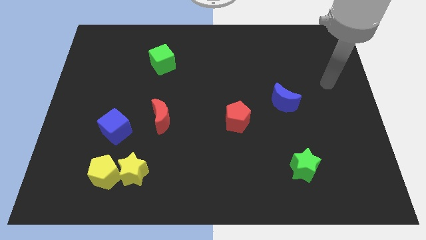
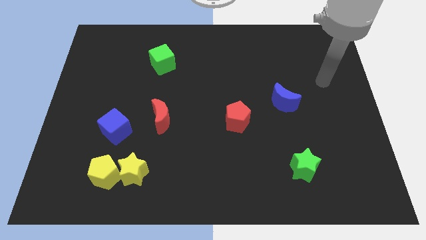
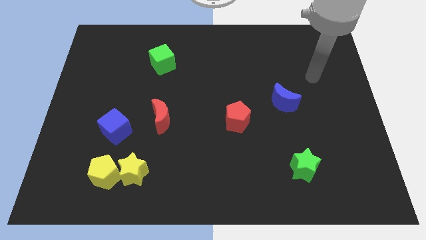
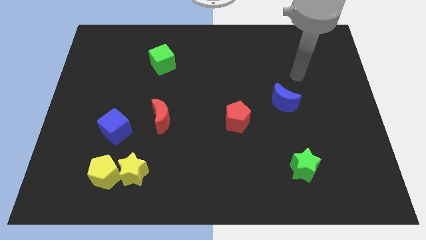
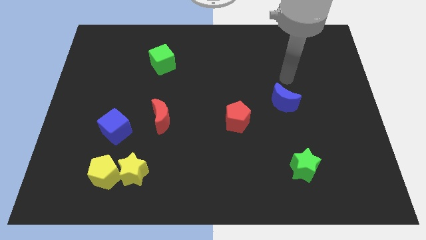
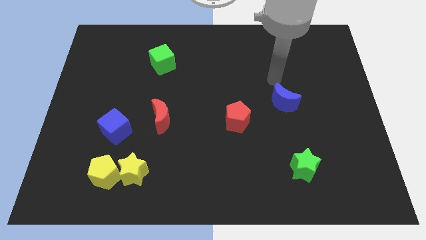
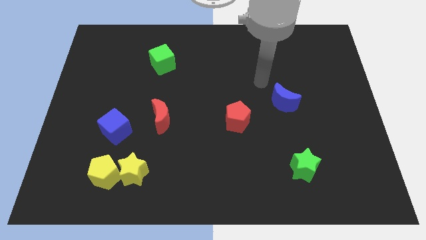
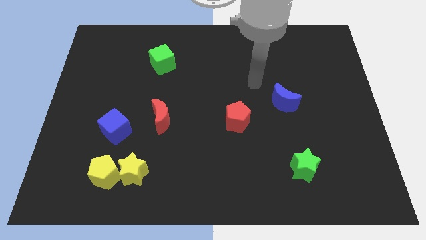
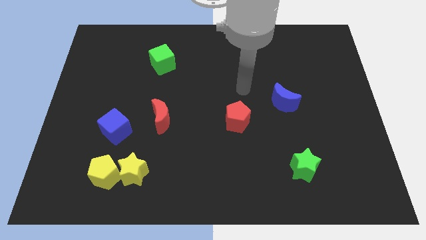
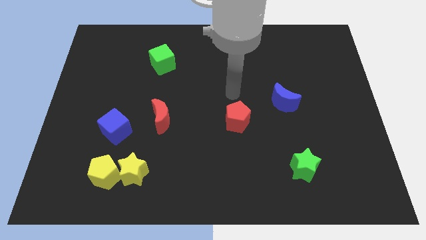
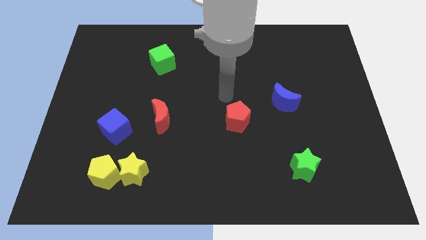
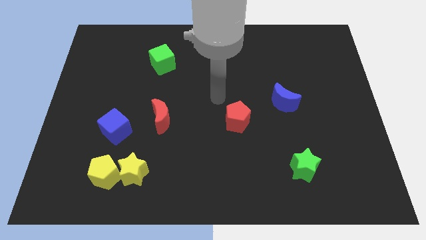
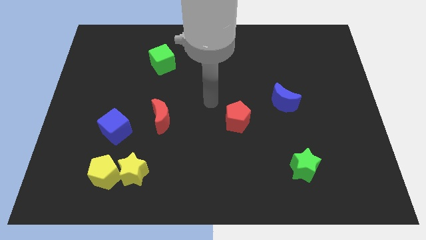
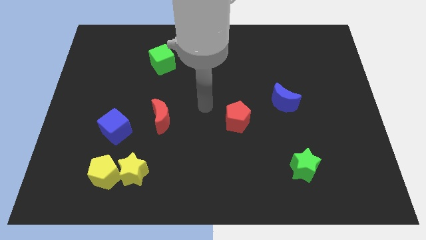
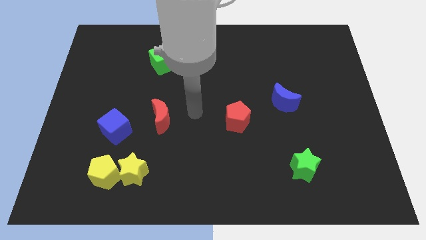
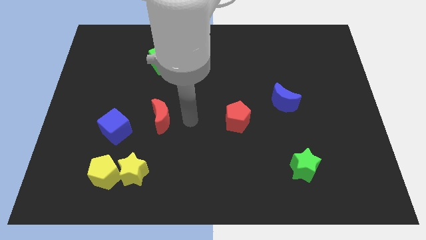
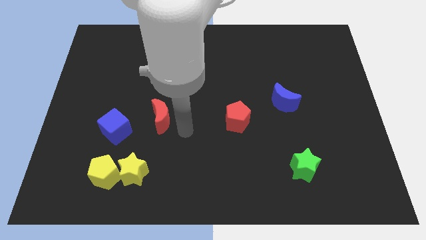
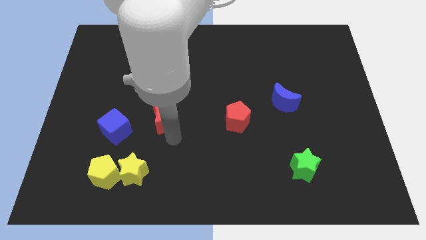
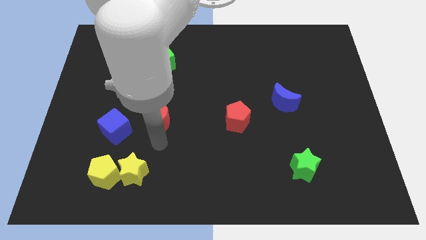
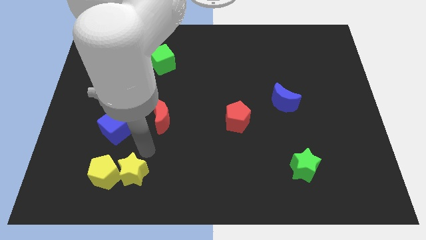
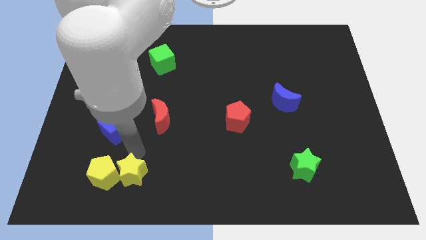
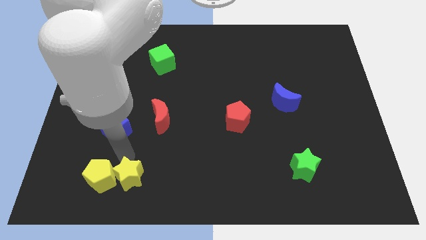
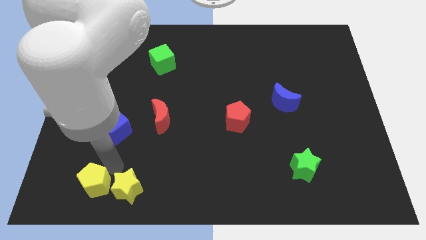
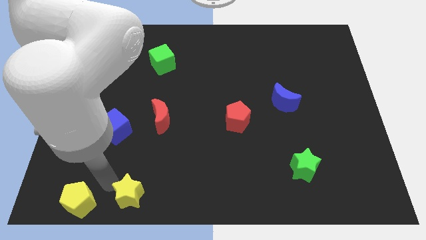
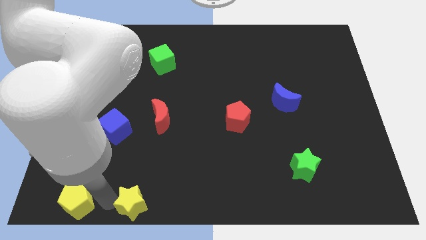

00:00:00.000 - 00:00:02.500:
separate the yellow star from the yellow pentagon

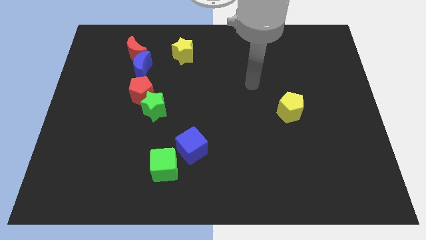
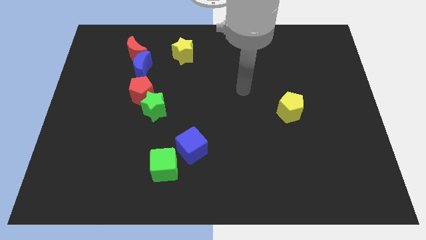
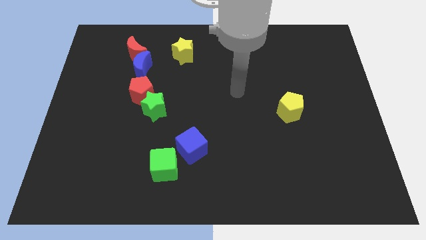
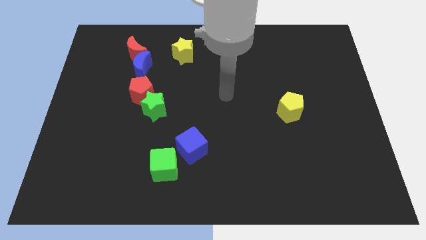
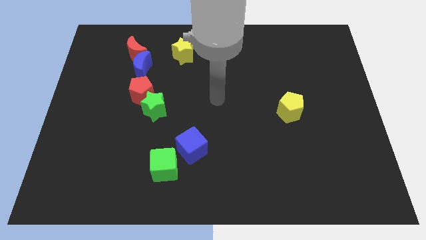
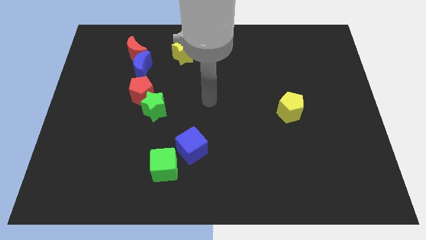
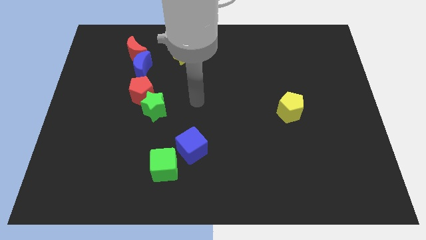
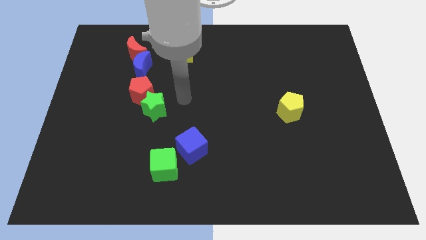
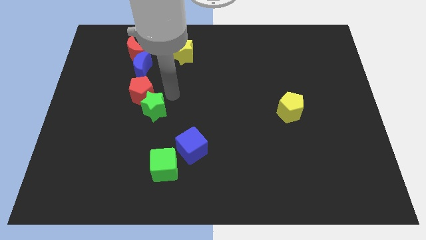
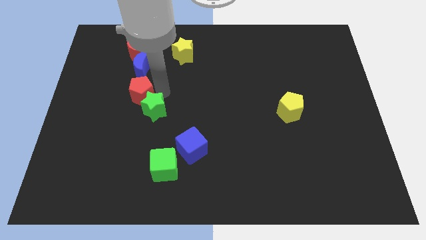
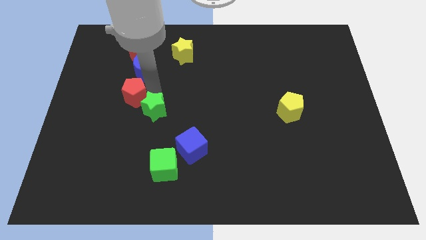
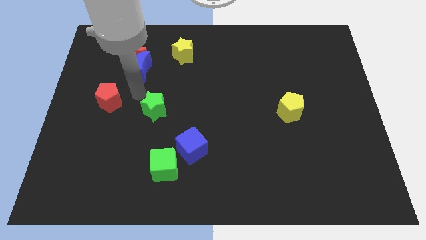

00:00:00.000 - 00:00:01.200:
separate the green star from the red pentagon

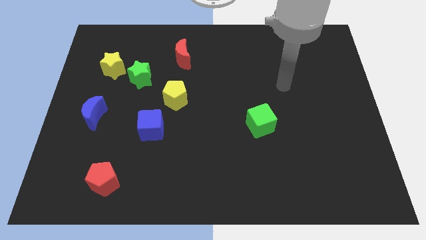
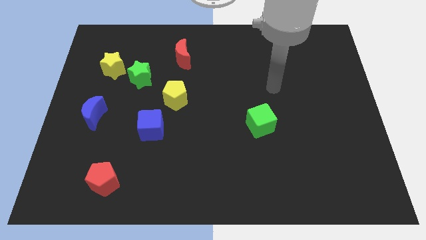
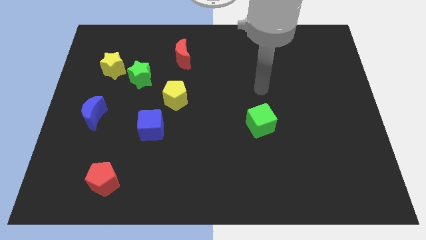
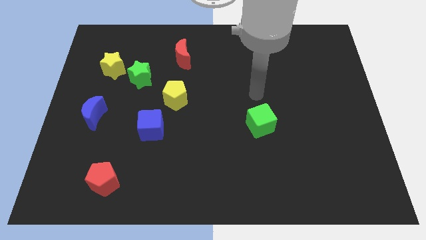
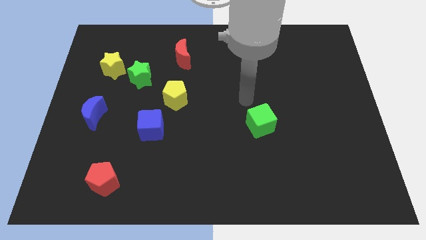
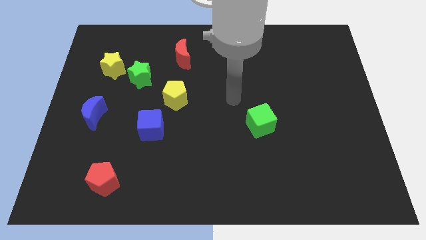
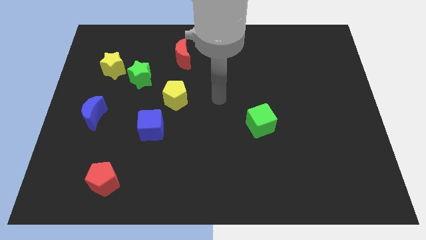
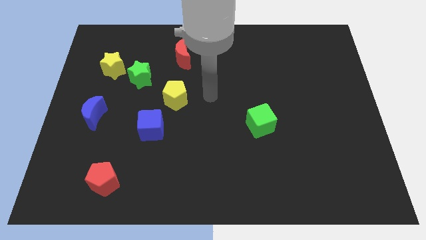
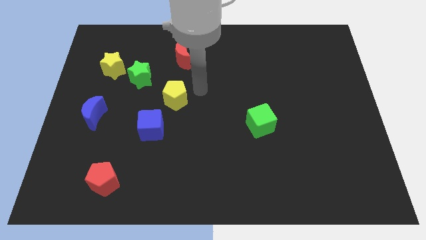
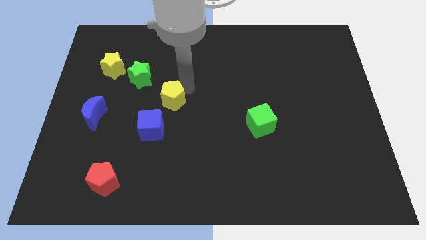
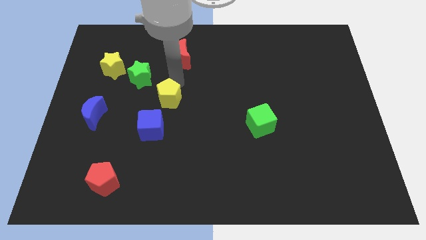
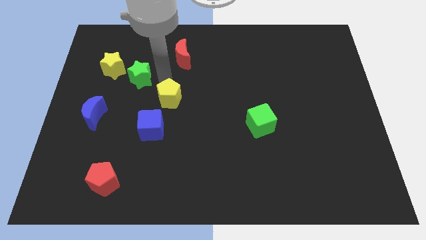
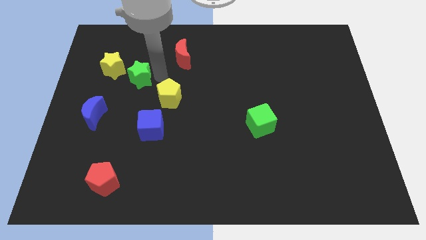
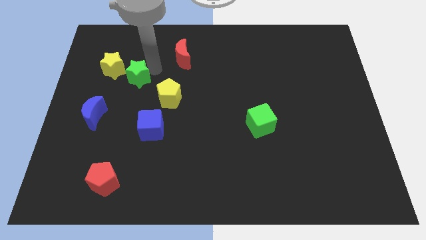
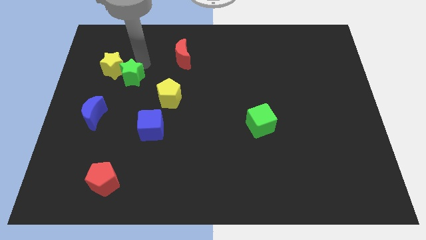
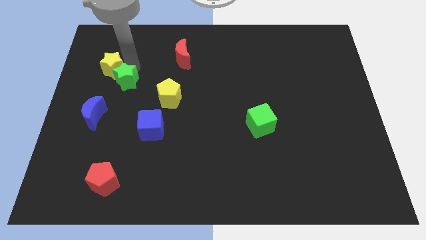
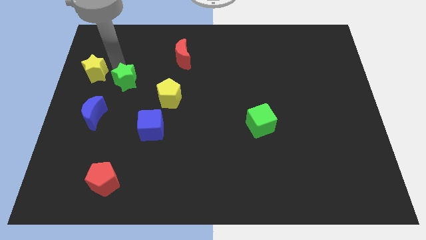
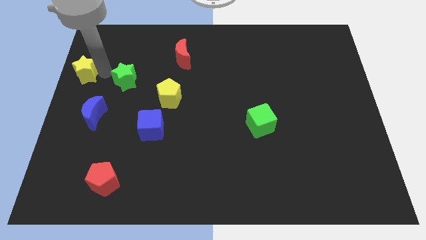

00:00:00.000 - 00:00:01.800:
move the green star away from the yellow star

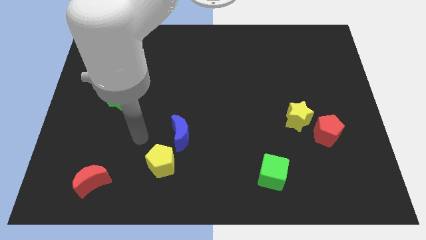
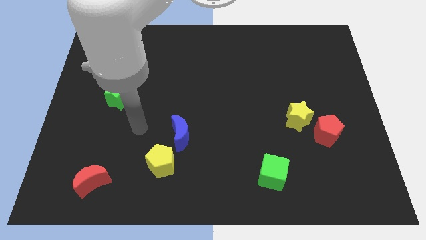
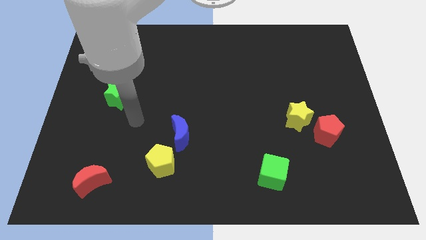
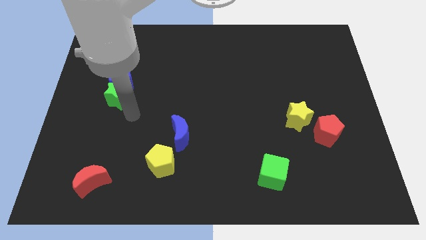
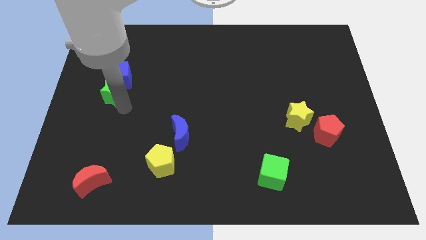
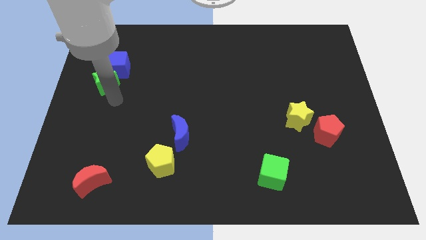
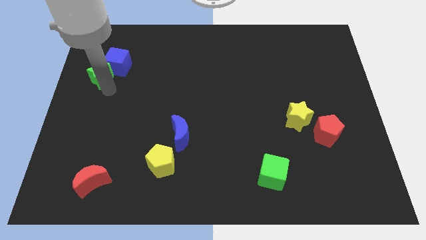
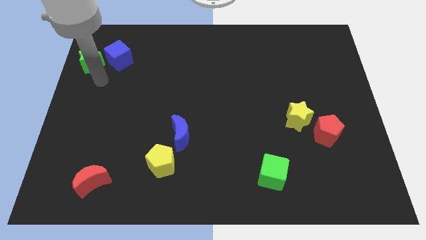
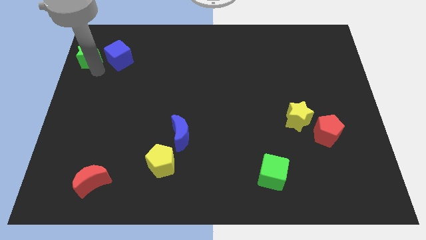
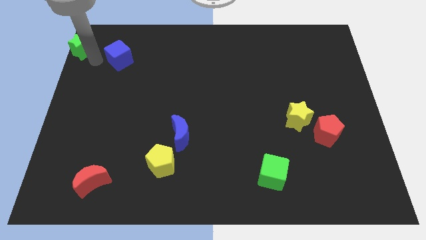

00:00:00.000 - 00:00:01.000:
move the blue cube away from the green star

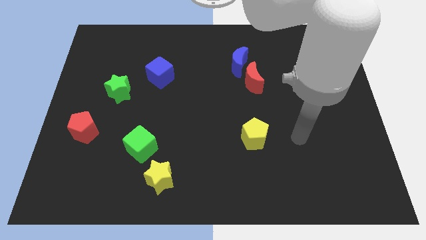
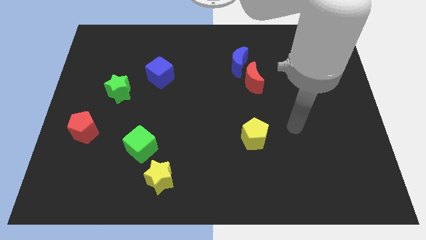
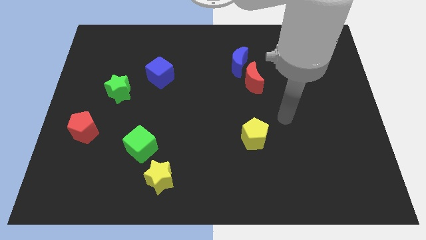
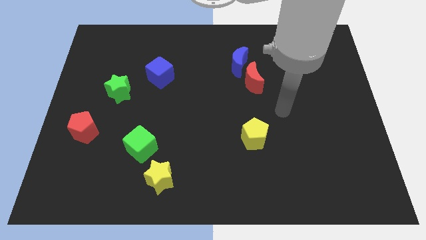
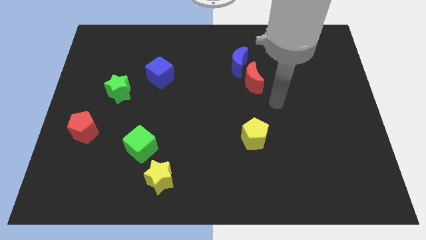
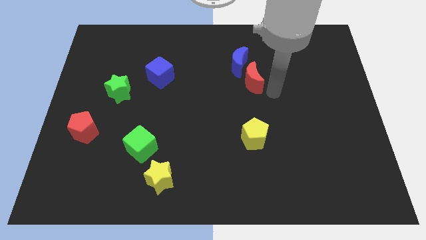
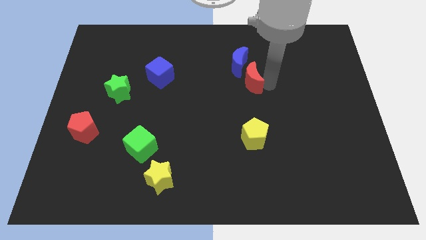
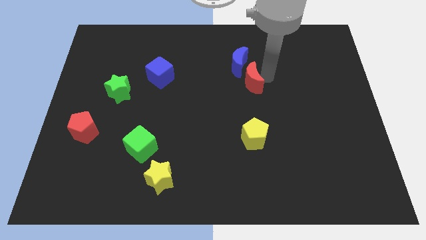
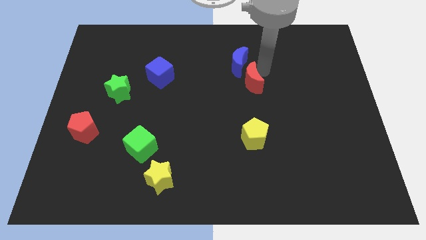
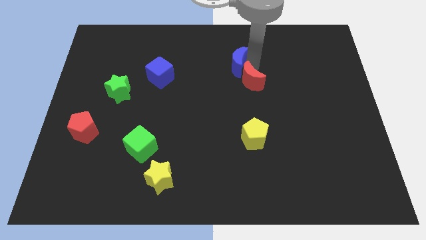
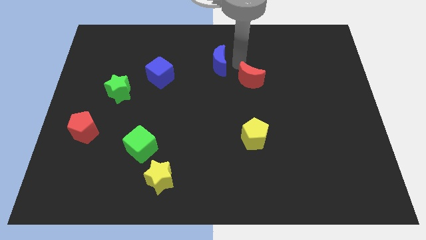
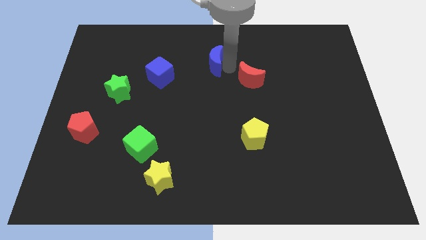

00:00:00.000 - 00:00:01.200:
separate the red moon from the blue moon

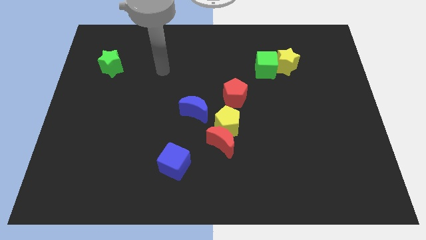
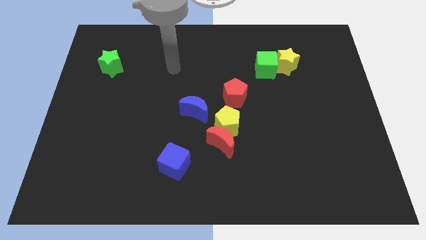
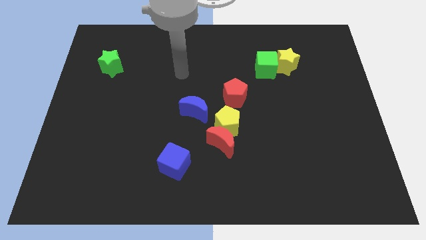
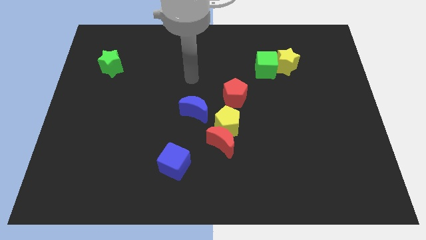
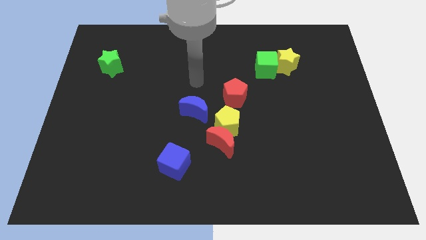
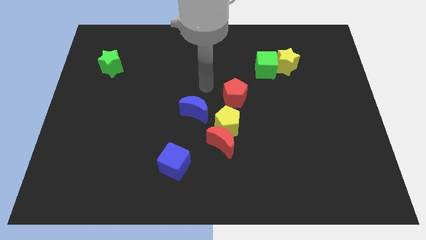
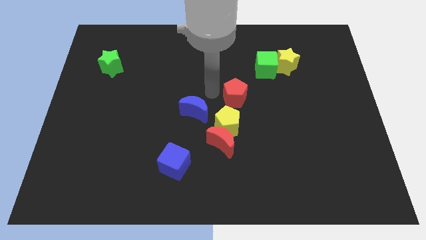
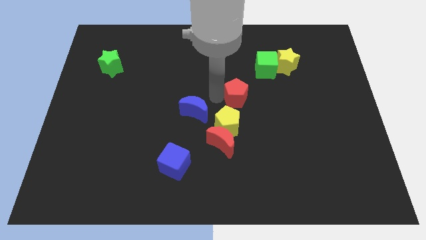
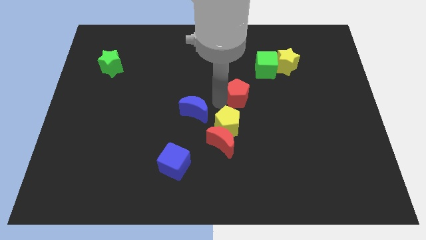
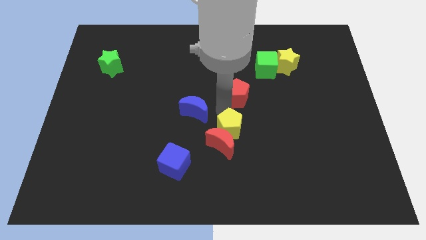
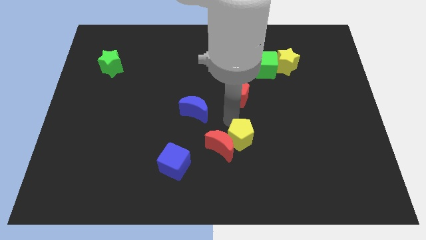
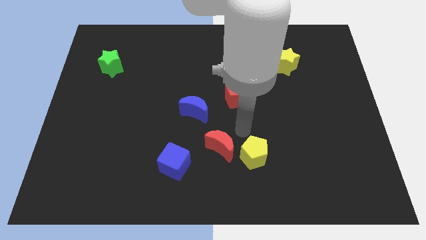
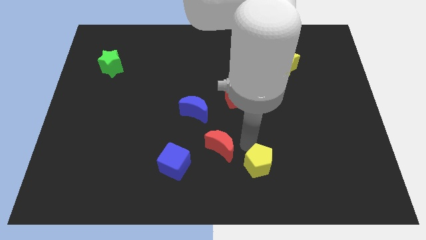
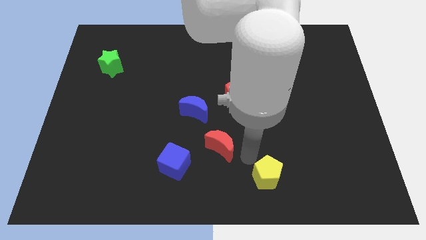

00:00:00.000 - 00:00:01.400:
move the red moon away from the yellow pentagon
